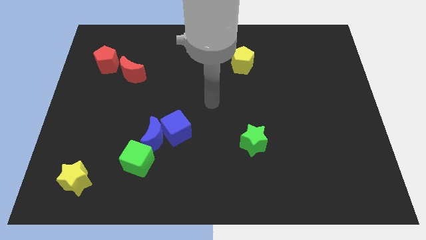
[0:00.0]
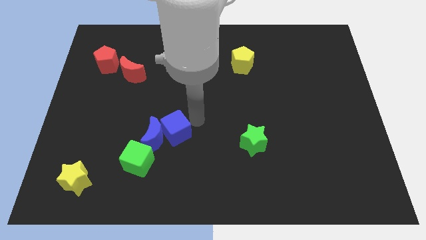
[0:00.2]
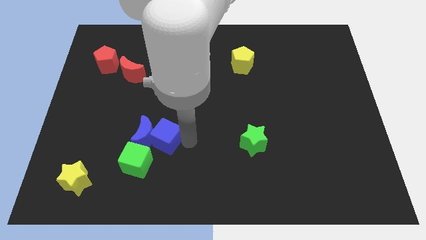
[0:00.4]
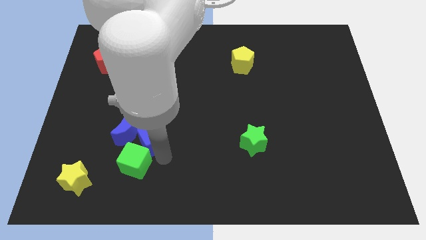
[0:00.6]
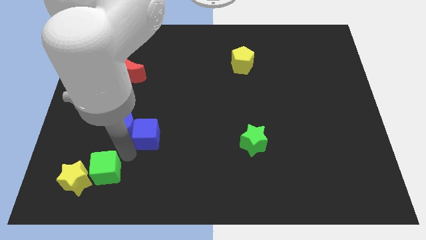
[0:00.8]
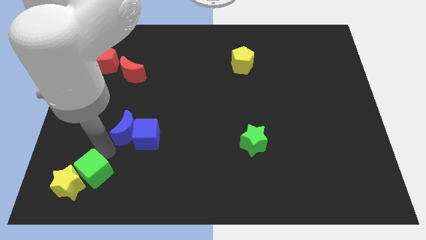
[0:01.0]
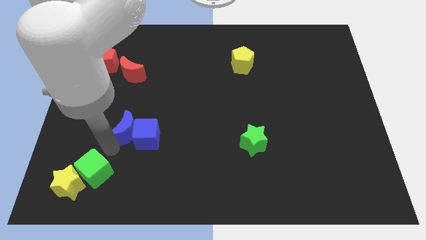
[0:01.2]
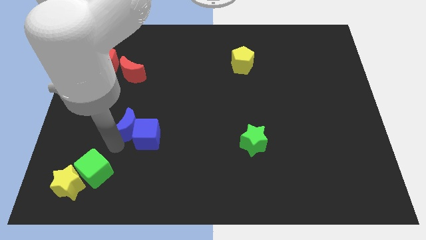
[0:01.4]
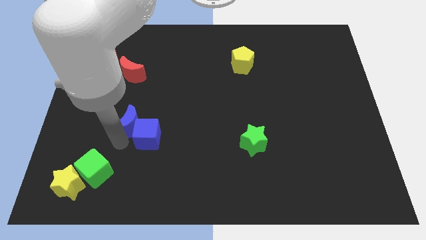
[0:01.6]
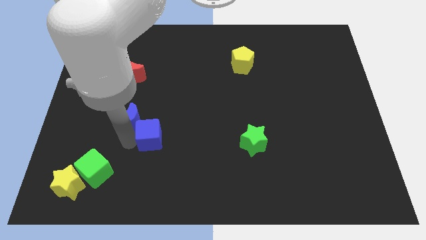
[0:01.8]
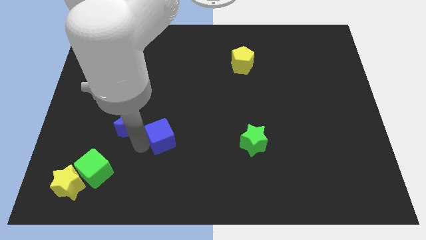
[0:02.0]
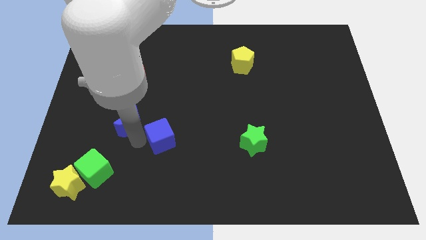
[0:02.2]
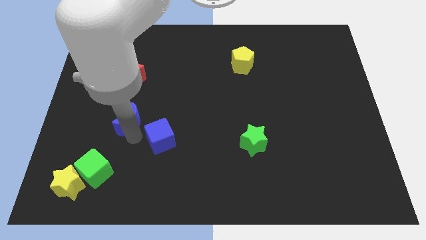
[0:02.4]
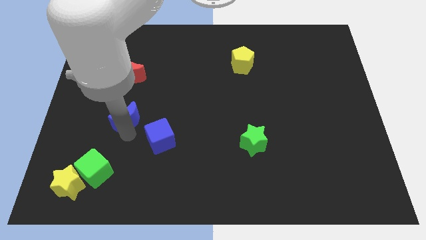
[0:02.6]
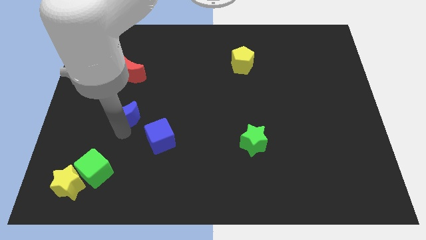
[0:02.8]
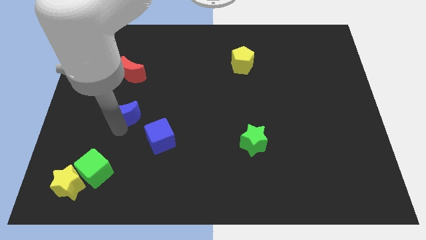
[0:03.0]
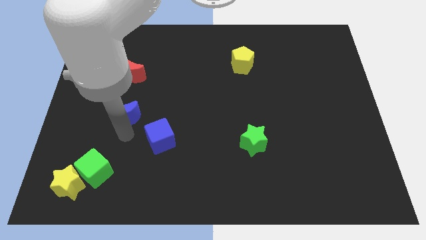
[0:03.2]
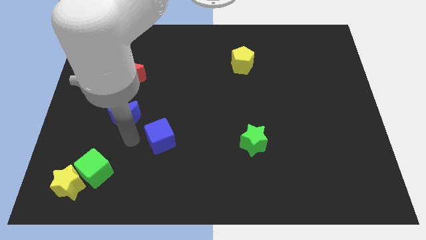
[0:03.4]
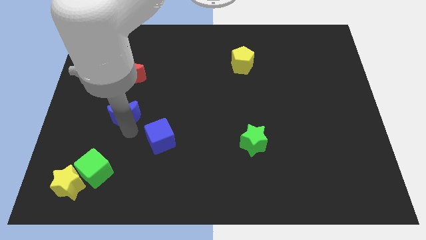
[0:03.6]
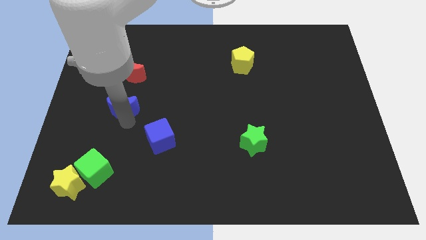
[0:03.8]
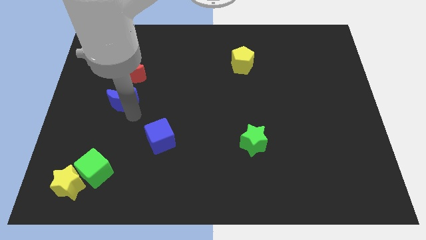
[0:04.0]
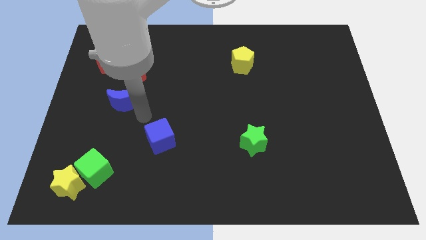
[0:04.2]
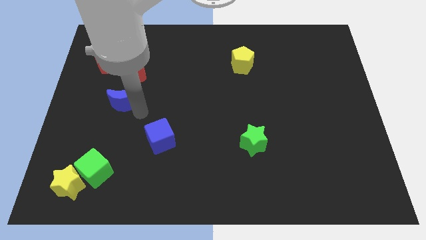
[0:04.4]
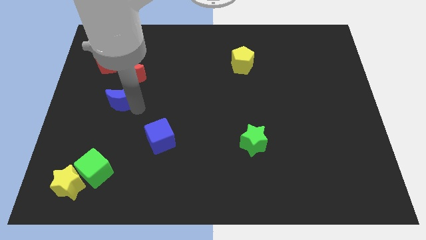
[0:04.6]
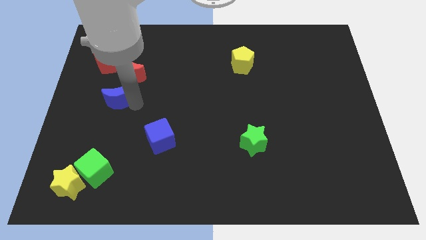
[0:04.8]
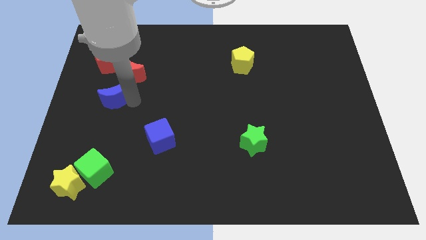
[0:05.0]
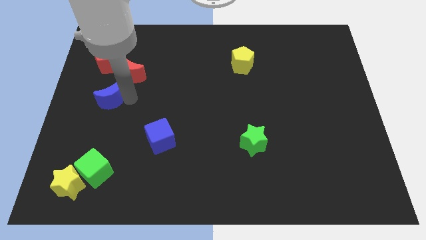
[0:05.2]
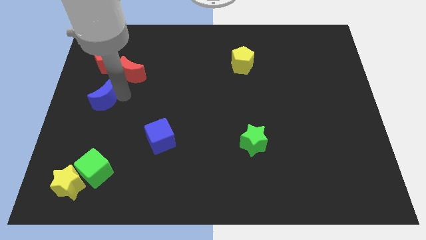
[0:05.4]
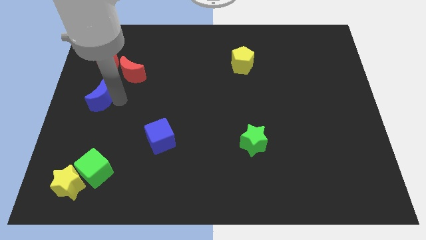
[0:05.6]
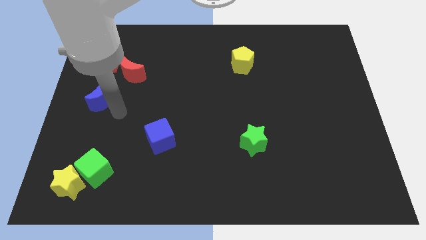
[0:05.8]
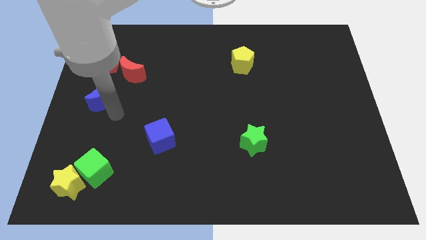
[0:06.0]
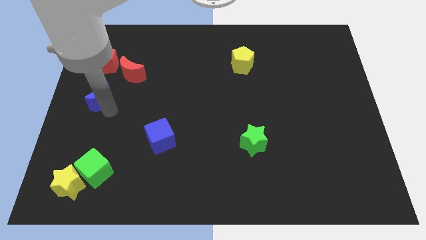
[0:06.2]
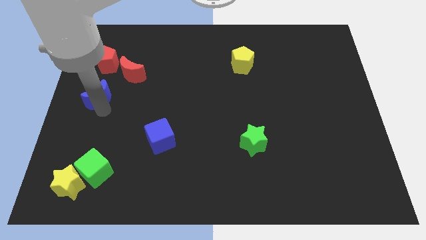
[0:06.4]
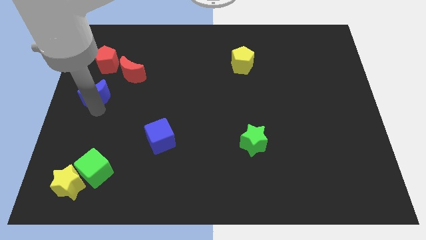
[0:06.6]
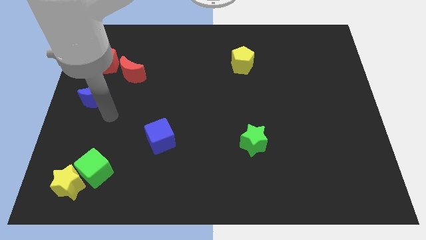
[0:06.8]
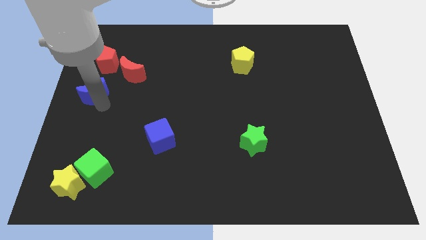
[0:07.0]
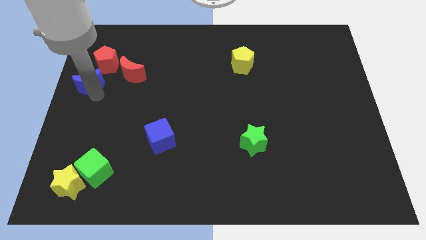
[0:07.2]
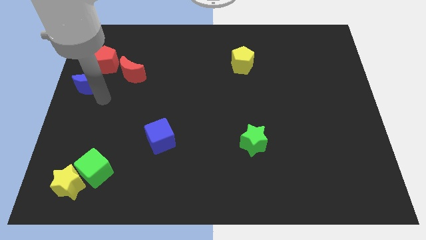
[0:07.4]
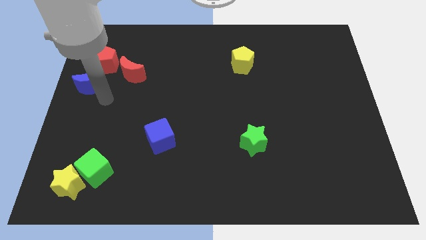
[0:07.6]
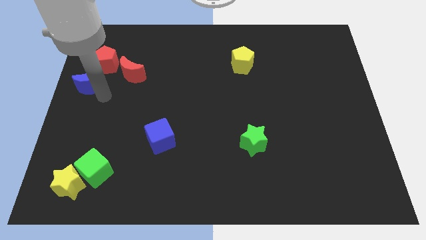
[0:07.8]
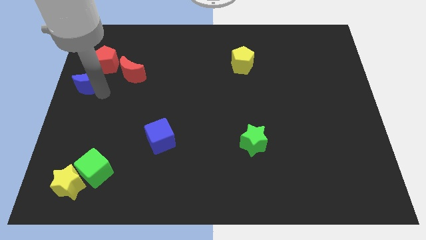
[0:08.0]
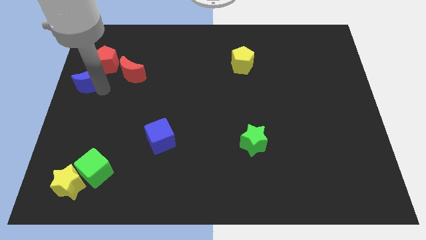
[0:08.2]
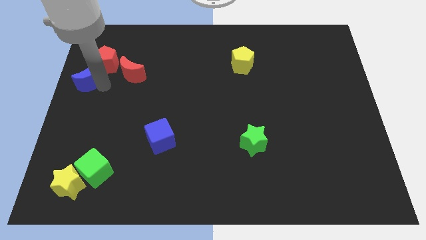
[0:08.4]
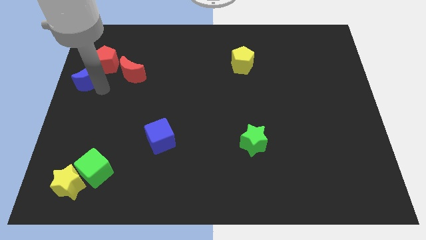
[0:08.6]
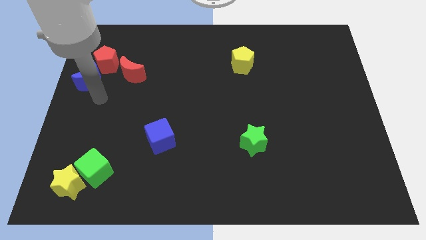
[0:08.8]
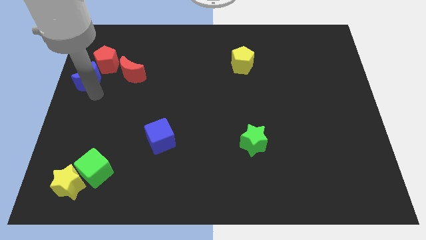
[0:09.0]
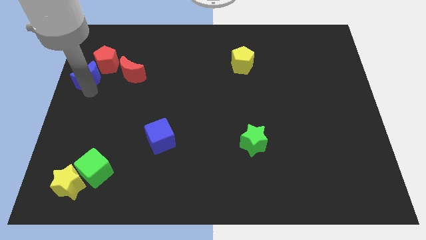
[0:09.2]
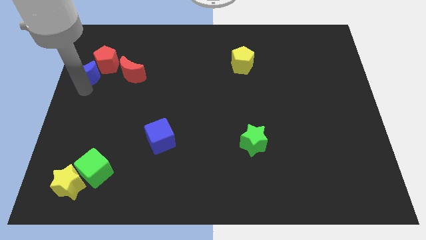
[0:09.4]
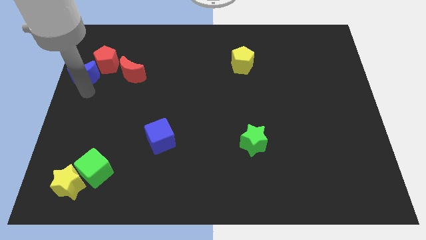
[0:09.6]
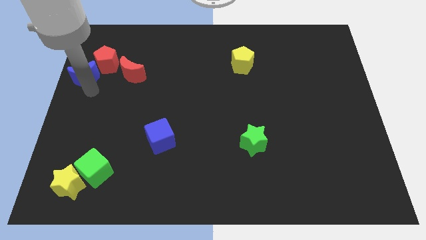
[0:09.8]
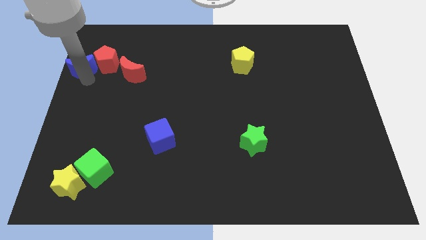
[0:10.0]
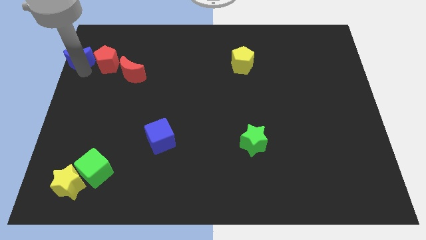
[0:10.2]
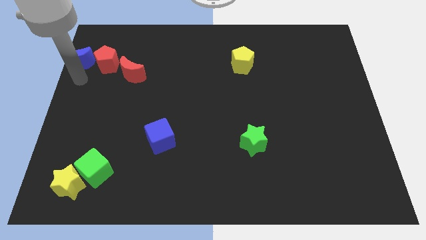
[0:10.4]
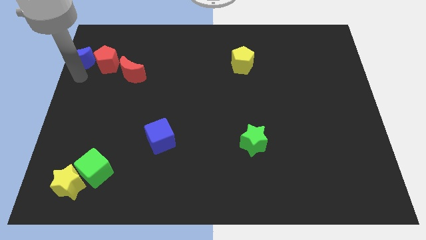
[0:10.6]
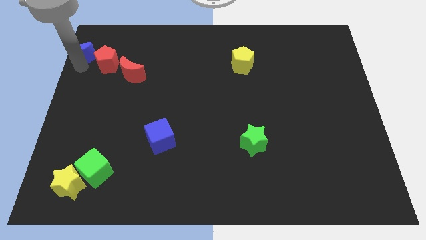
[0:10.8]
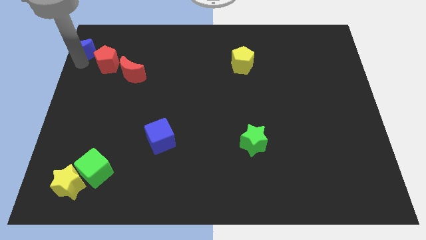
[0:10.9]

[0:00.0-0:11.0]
push the blue moon to the top left of the board

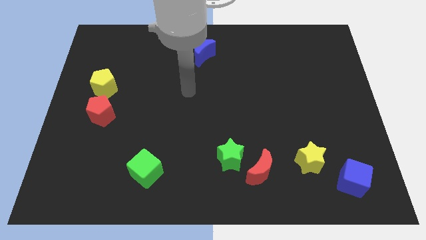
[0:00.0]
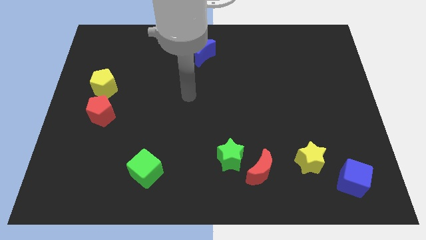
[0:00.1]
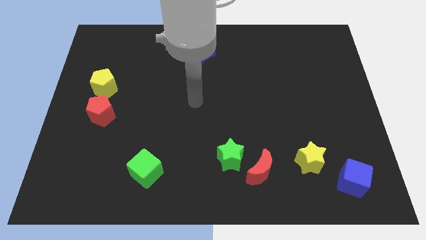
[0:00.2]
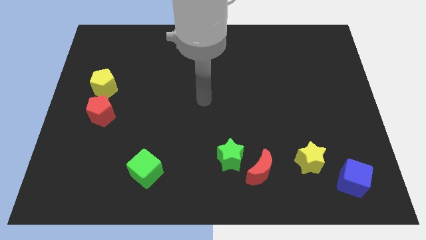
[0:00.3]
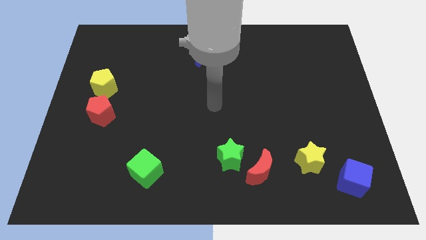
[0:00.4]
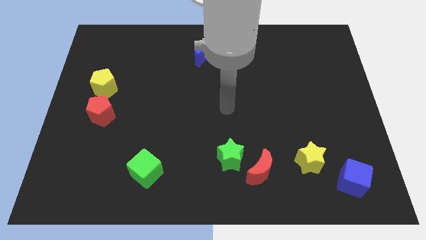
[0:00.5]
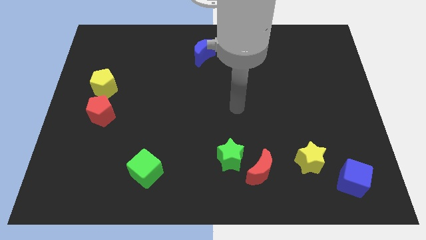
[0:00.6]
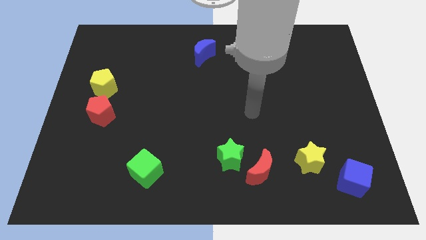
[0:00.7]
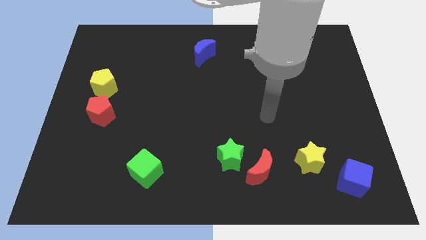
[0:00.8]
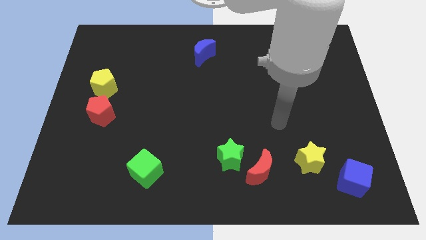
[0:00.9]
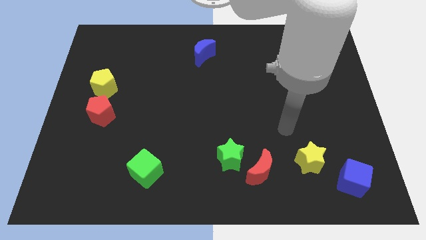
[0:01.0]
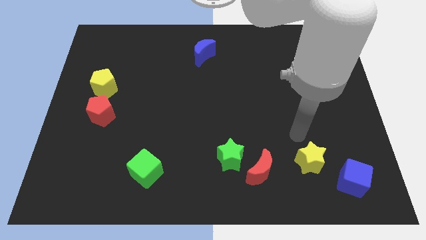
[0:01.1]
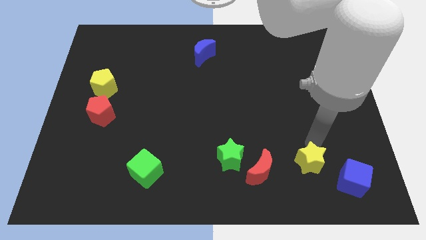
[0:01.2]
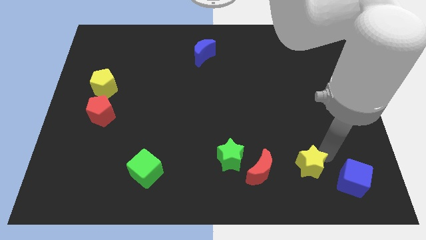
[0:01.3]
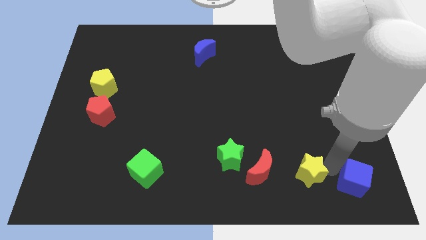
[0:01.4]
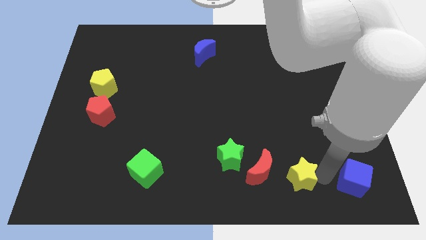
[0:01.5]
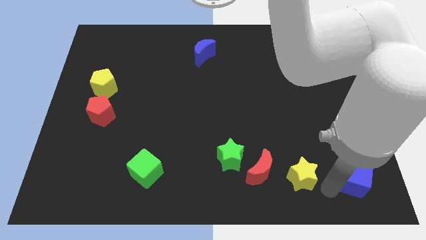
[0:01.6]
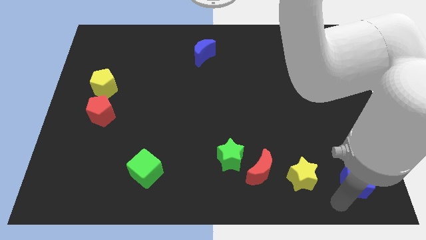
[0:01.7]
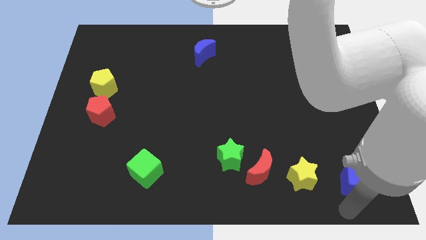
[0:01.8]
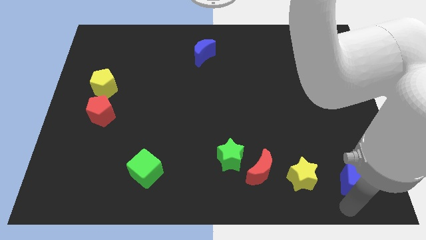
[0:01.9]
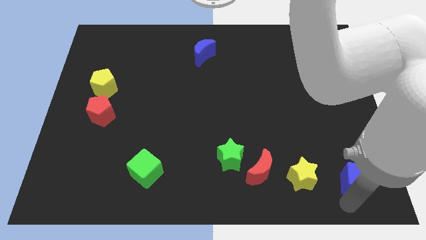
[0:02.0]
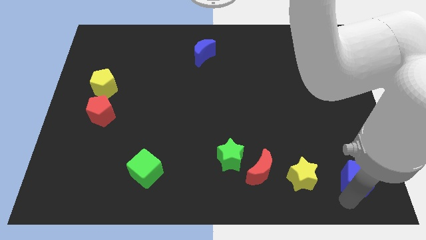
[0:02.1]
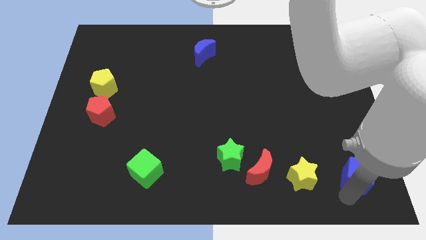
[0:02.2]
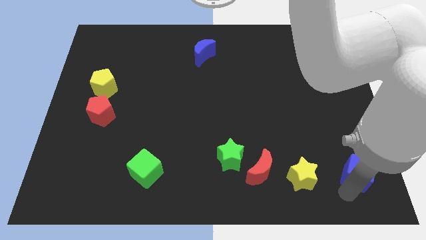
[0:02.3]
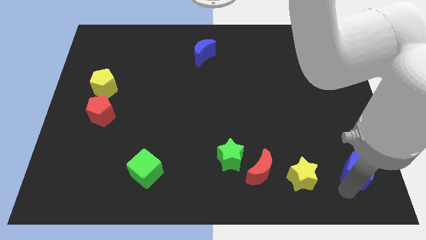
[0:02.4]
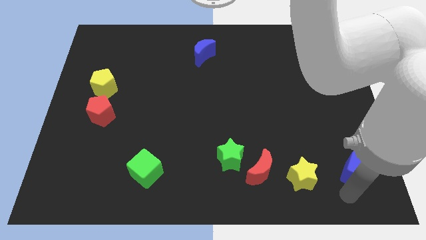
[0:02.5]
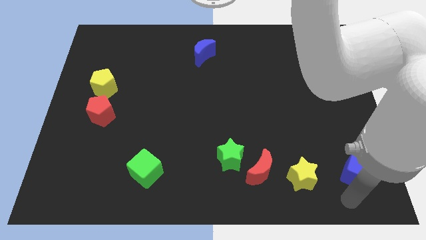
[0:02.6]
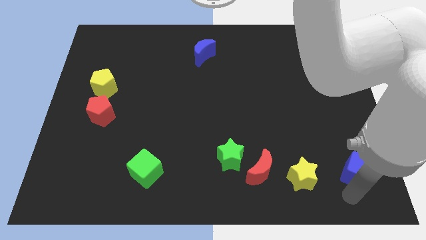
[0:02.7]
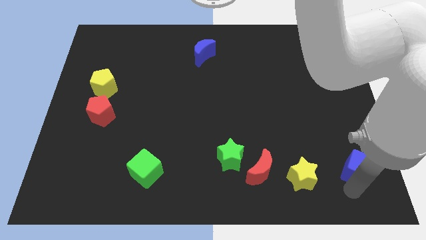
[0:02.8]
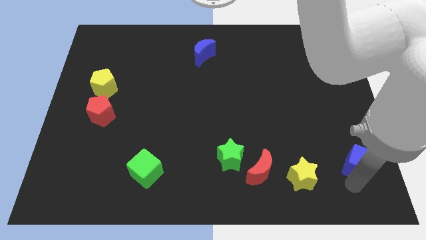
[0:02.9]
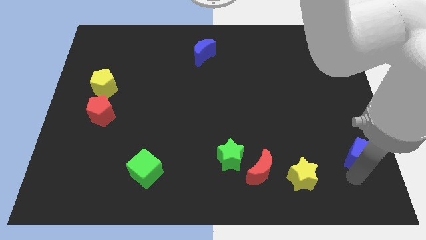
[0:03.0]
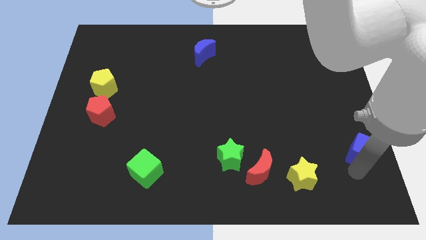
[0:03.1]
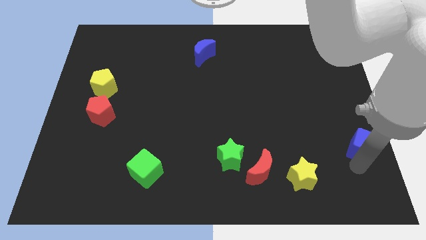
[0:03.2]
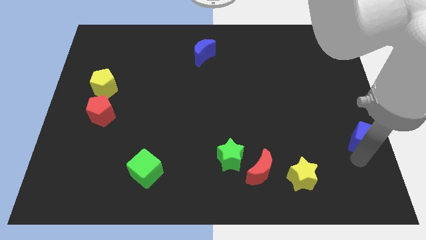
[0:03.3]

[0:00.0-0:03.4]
push the blue cube to the right side
